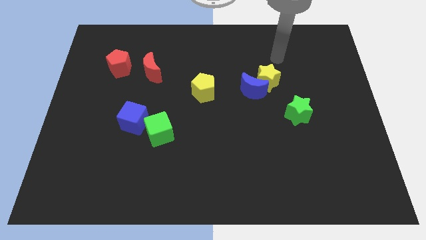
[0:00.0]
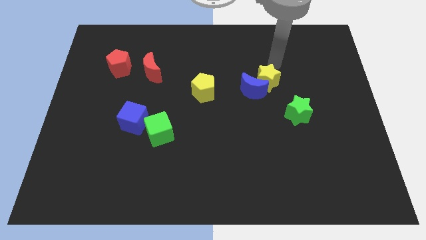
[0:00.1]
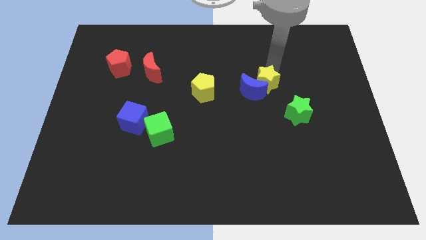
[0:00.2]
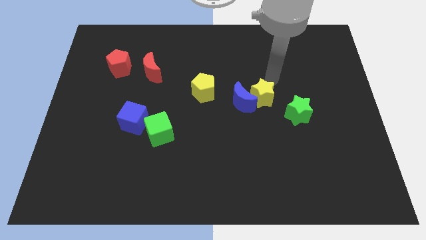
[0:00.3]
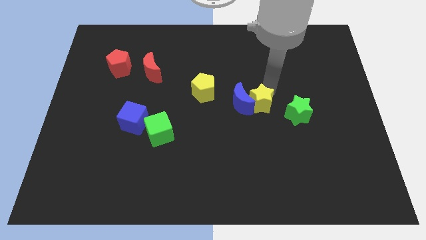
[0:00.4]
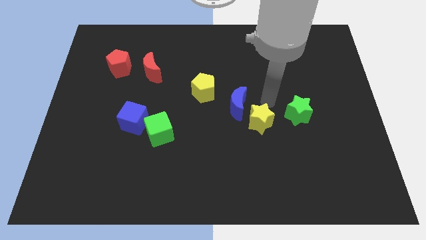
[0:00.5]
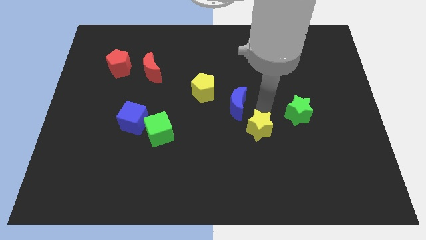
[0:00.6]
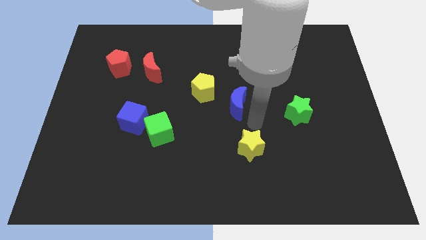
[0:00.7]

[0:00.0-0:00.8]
separate the blue moon from the yellow star

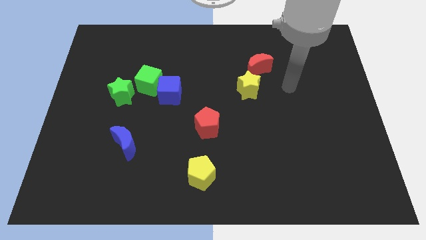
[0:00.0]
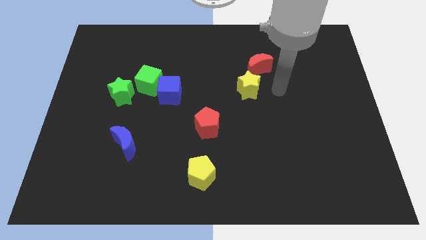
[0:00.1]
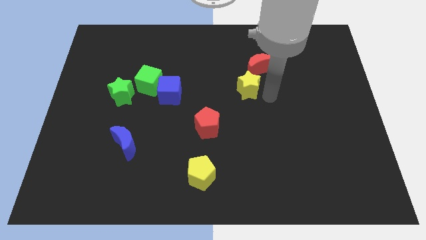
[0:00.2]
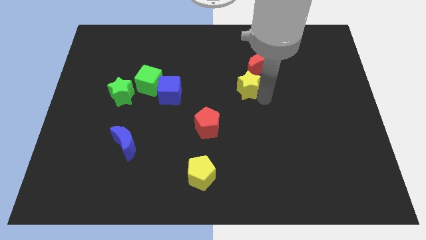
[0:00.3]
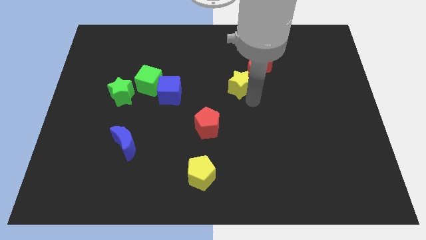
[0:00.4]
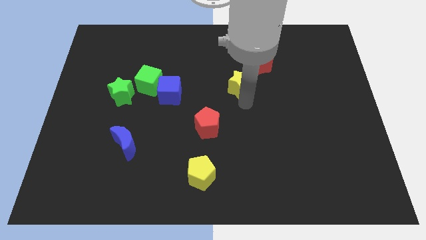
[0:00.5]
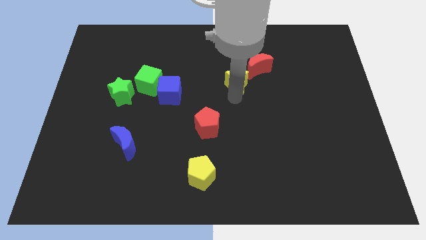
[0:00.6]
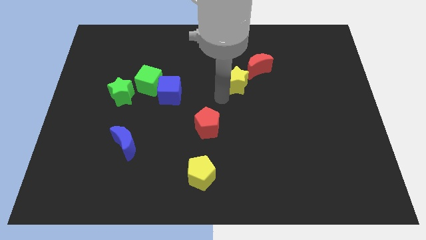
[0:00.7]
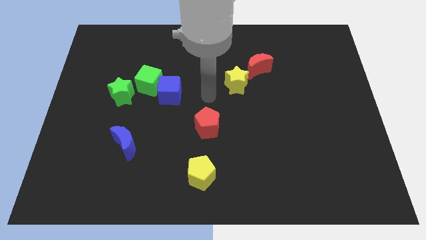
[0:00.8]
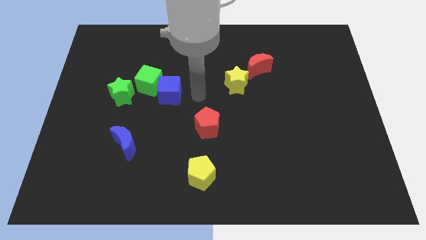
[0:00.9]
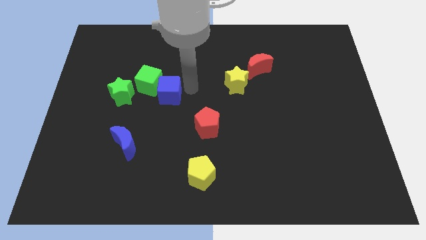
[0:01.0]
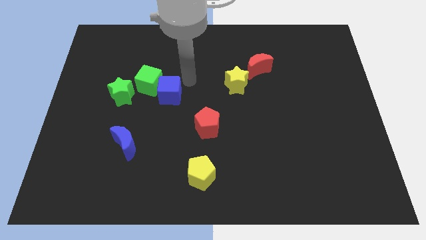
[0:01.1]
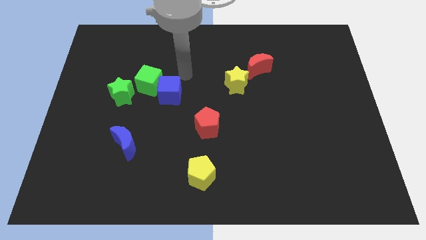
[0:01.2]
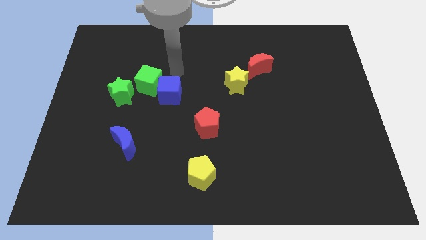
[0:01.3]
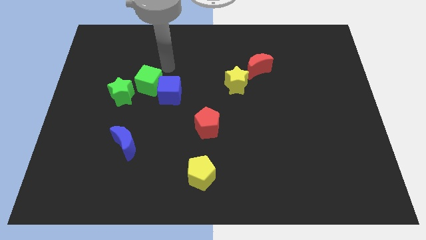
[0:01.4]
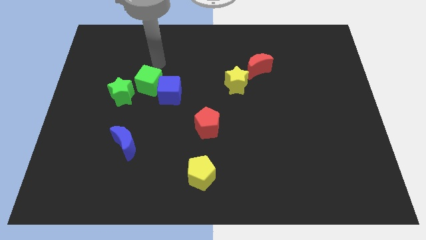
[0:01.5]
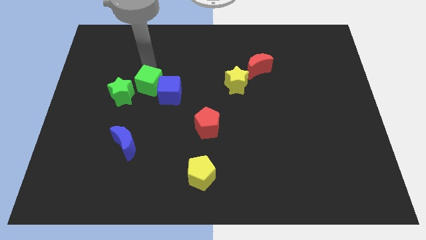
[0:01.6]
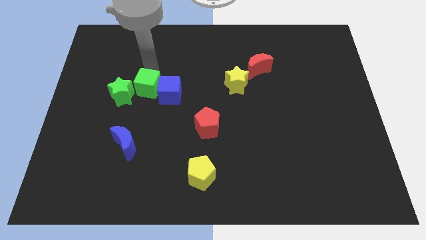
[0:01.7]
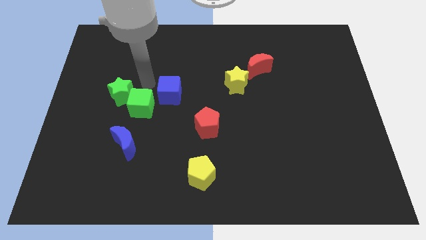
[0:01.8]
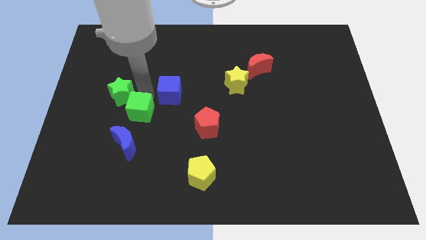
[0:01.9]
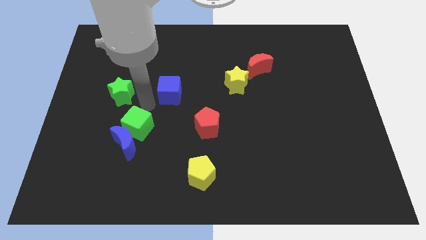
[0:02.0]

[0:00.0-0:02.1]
separate the blue cube from the green cube

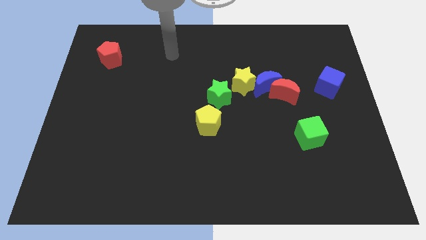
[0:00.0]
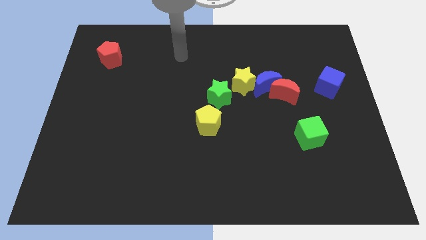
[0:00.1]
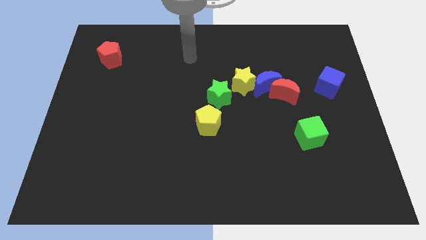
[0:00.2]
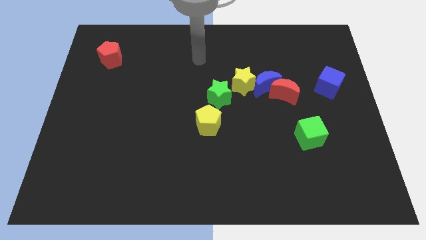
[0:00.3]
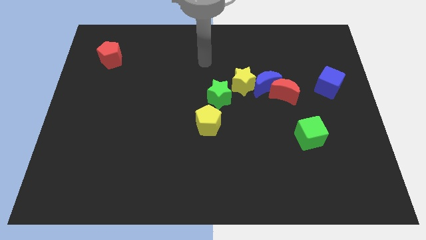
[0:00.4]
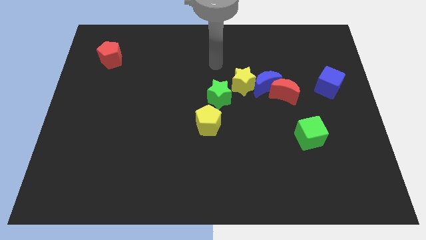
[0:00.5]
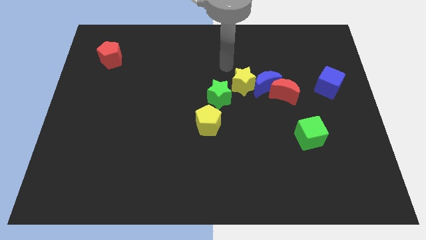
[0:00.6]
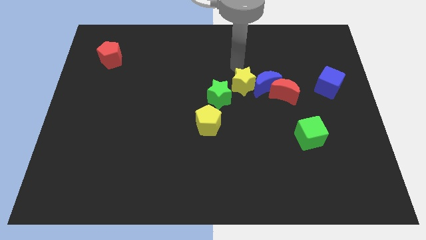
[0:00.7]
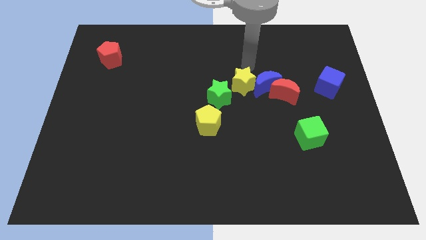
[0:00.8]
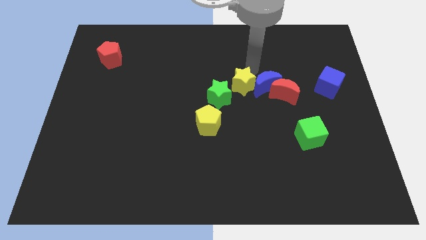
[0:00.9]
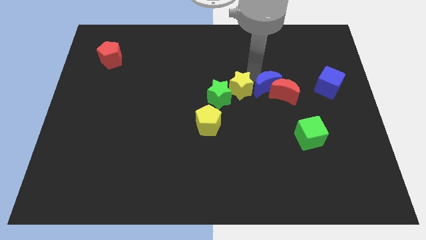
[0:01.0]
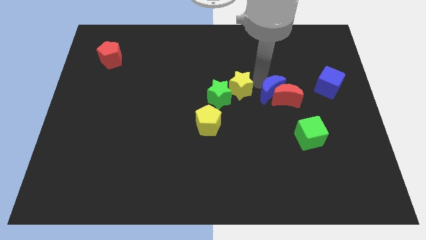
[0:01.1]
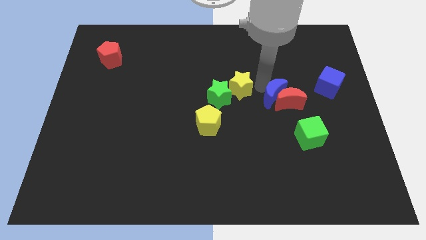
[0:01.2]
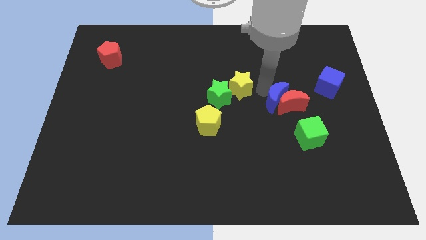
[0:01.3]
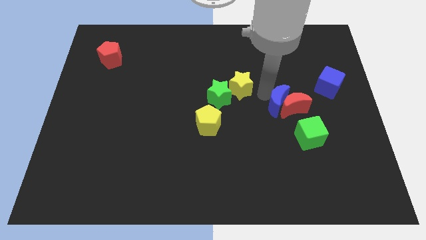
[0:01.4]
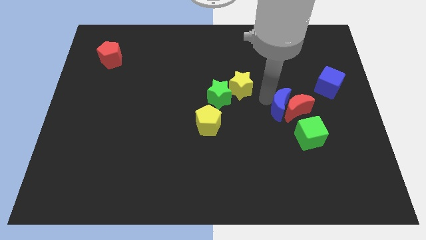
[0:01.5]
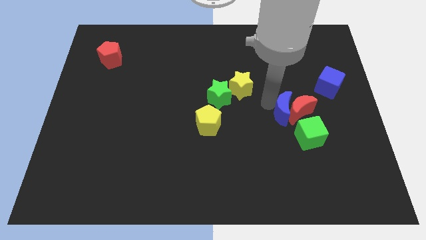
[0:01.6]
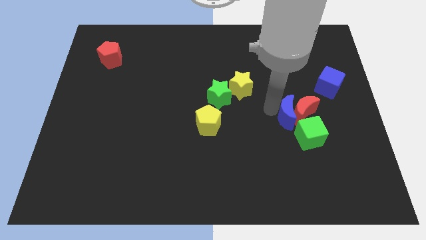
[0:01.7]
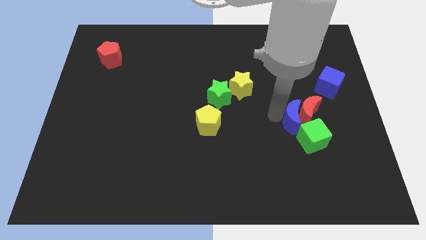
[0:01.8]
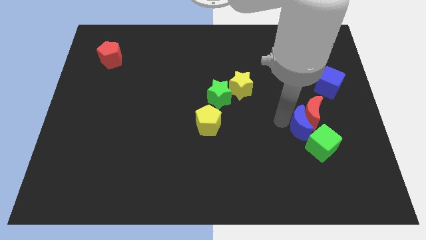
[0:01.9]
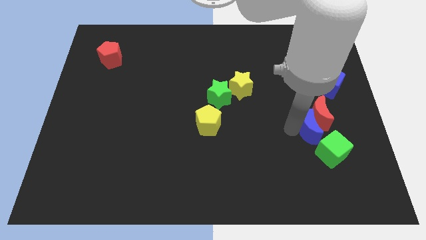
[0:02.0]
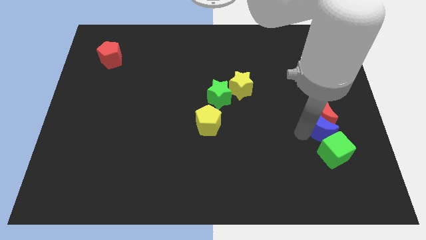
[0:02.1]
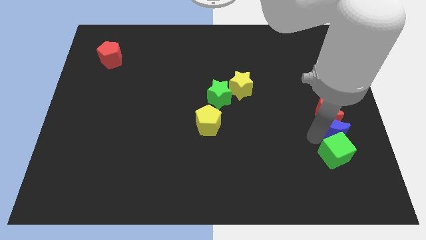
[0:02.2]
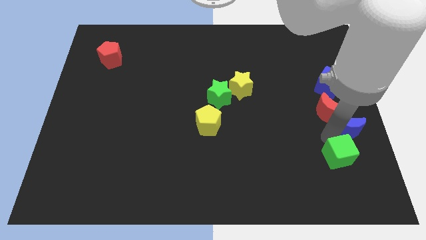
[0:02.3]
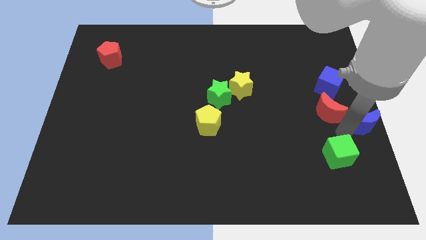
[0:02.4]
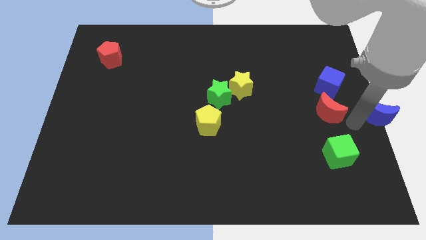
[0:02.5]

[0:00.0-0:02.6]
separate the red moon from the blue moon

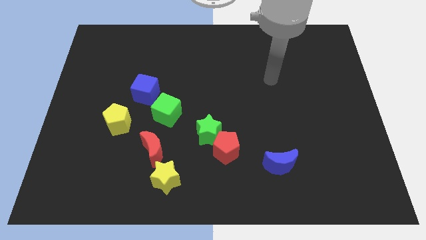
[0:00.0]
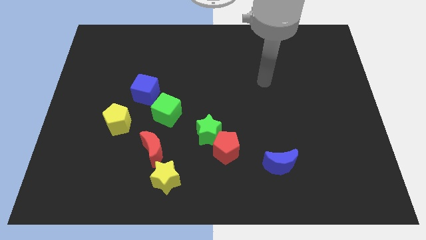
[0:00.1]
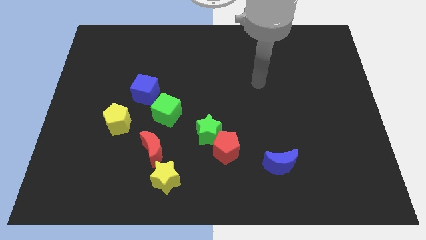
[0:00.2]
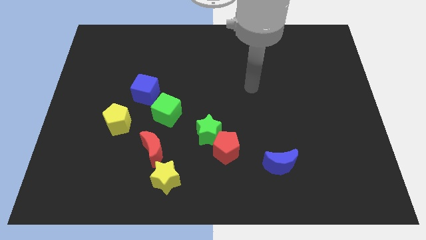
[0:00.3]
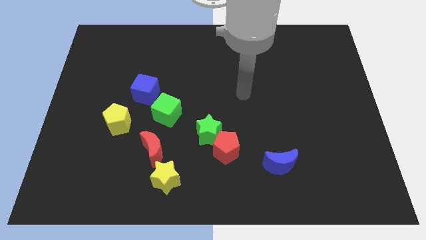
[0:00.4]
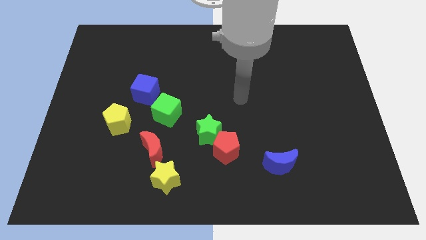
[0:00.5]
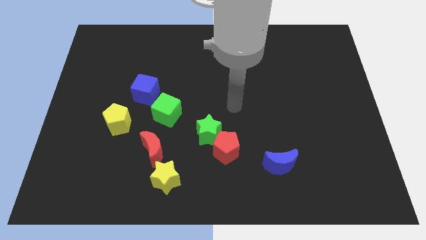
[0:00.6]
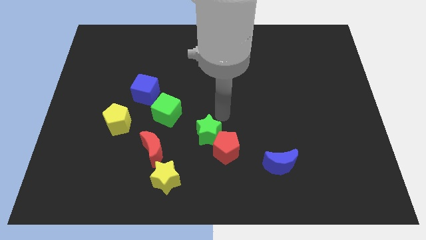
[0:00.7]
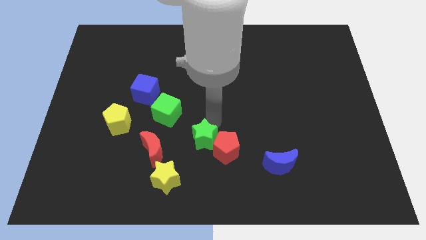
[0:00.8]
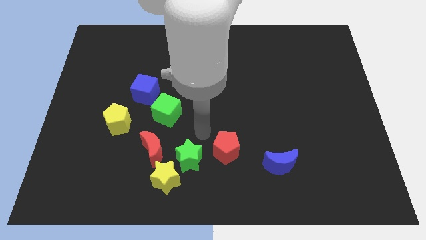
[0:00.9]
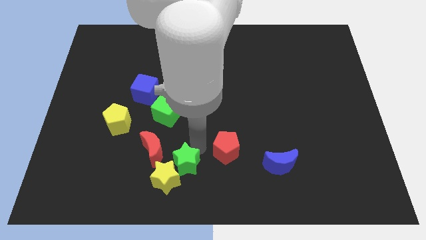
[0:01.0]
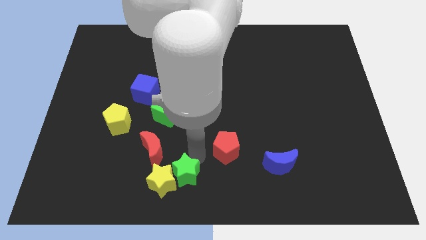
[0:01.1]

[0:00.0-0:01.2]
pull the red pentagon apart from the green star

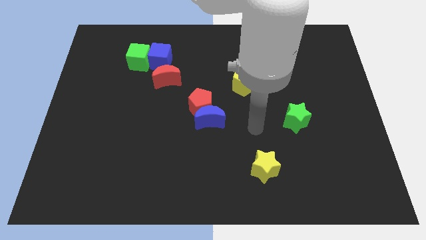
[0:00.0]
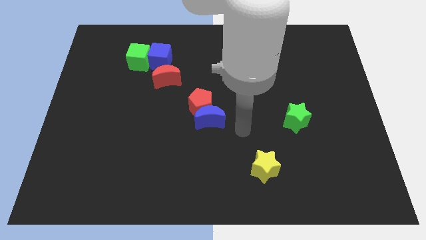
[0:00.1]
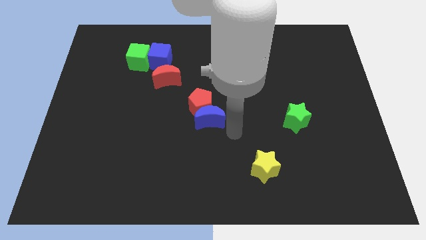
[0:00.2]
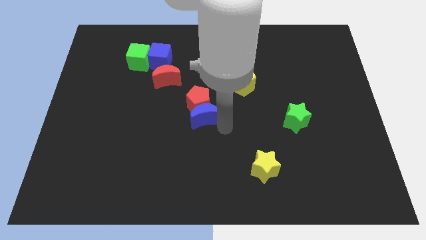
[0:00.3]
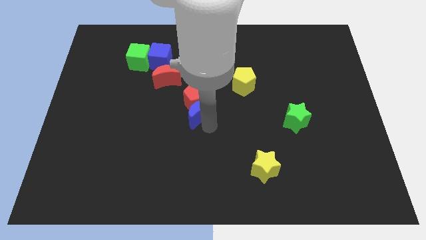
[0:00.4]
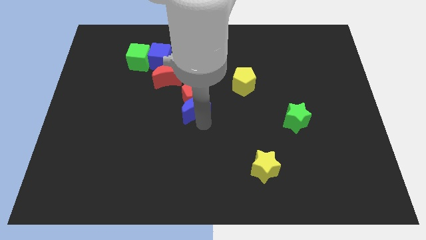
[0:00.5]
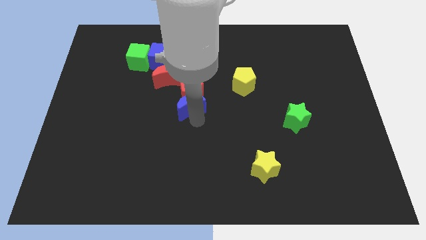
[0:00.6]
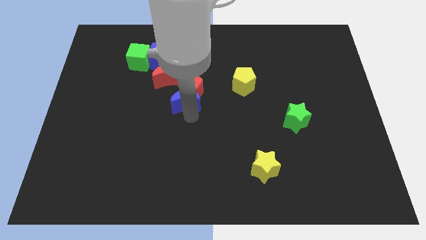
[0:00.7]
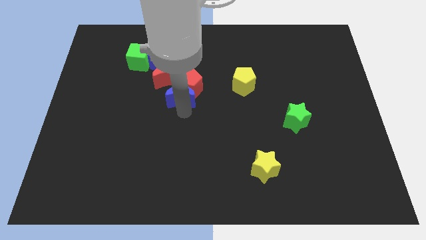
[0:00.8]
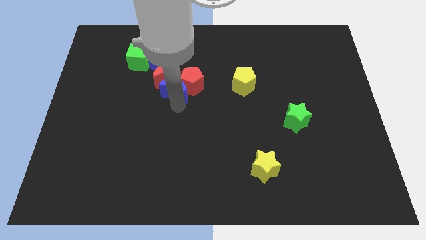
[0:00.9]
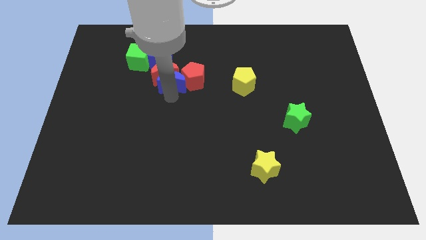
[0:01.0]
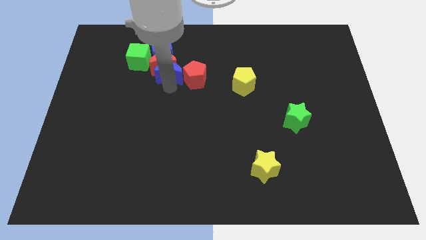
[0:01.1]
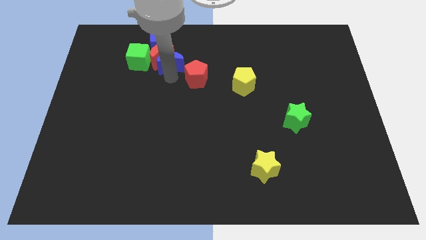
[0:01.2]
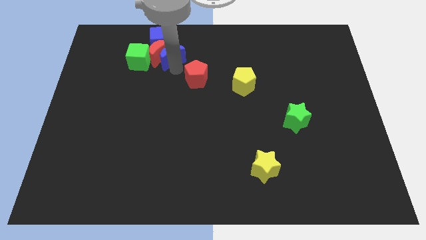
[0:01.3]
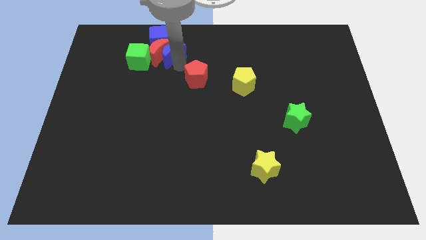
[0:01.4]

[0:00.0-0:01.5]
separate the red pentagon from the blue moon

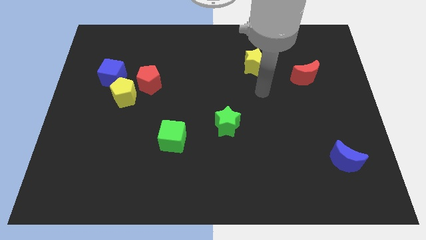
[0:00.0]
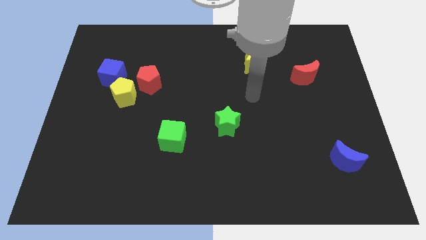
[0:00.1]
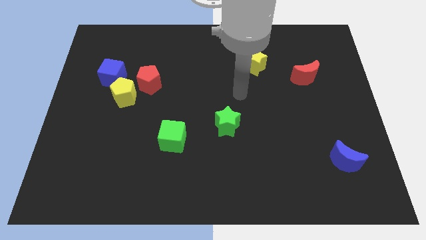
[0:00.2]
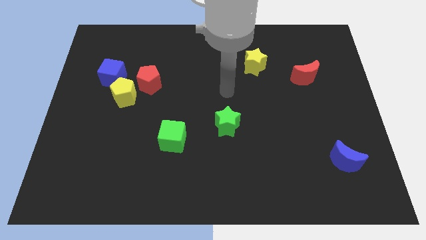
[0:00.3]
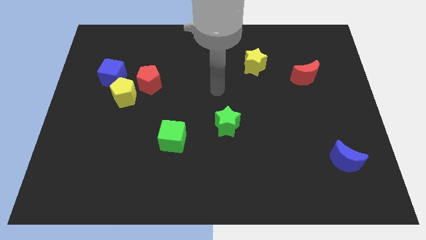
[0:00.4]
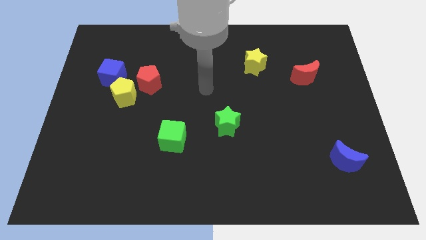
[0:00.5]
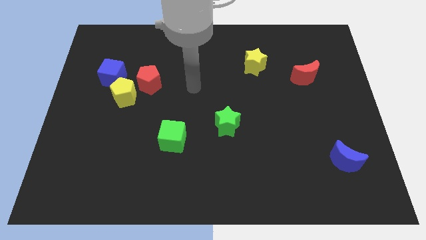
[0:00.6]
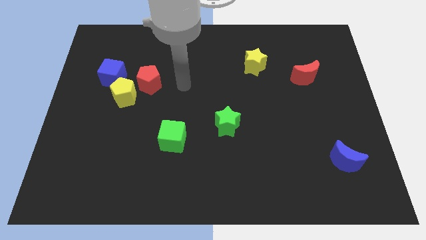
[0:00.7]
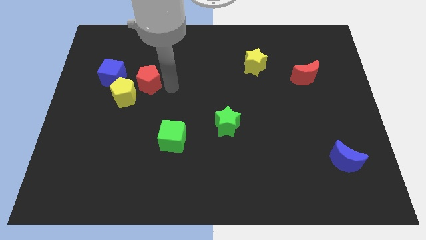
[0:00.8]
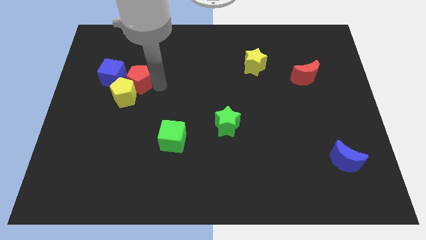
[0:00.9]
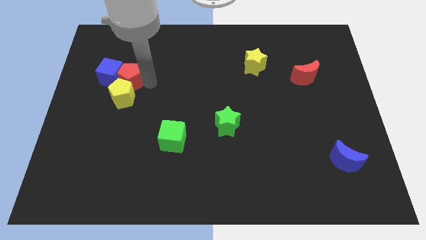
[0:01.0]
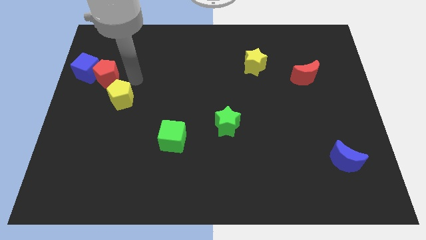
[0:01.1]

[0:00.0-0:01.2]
separate the yellow pentagon from the red pentagon and blue cube
